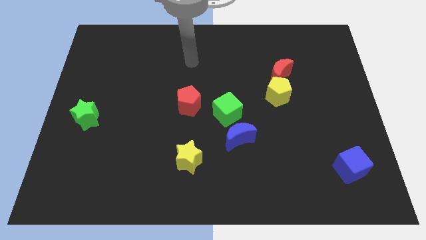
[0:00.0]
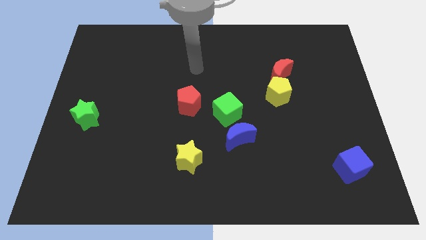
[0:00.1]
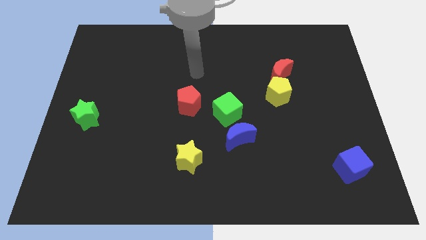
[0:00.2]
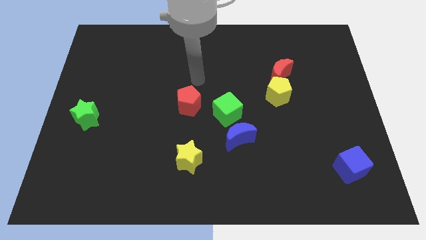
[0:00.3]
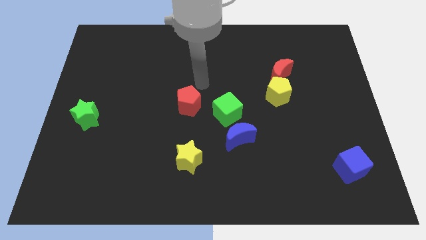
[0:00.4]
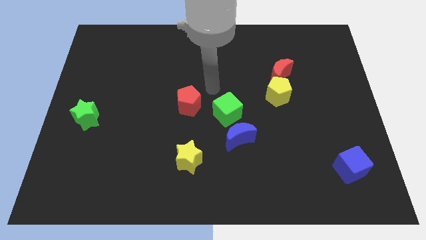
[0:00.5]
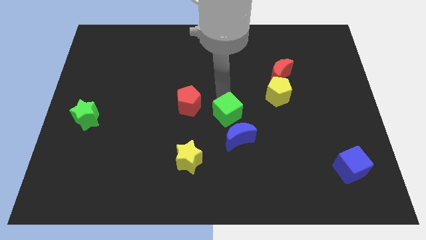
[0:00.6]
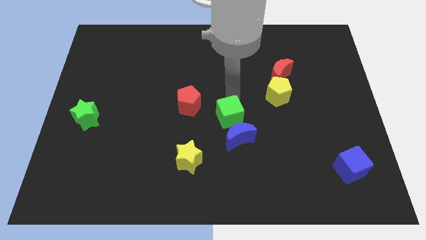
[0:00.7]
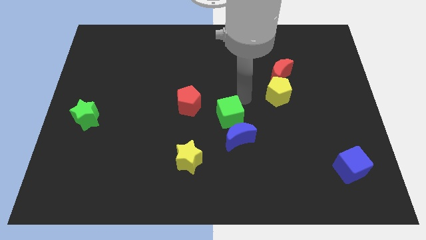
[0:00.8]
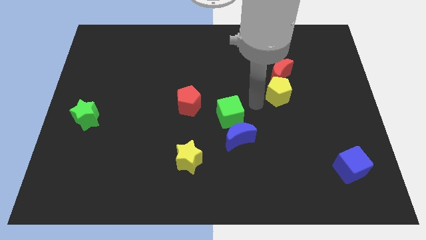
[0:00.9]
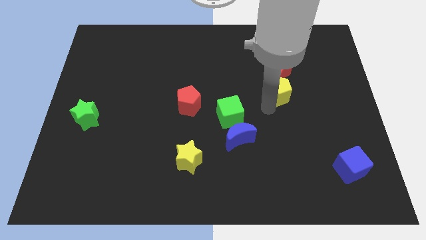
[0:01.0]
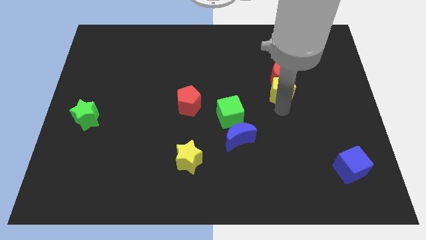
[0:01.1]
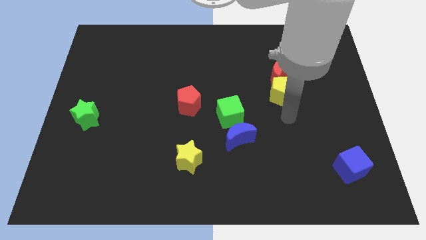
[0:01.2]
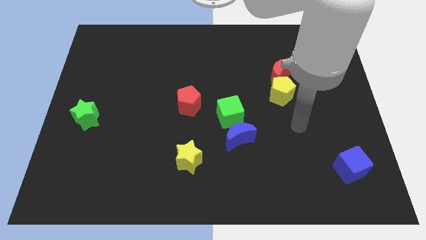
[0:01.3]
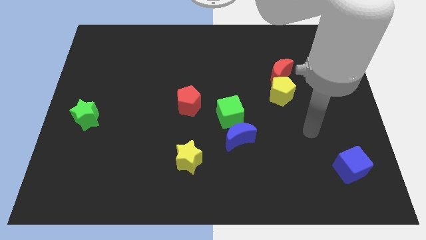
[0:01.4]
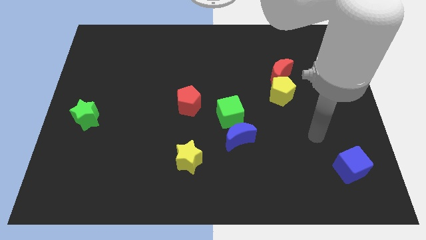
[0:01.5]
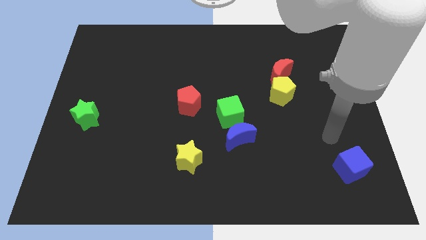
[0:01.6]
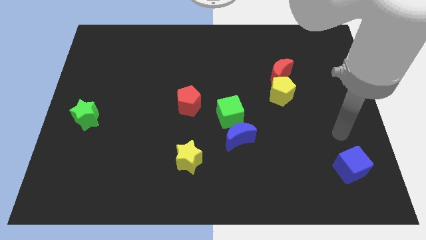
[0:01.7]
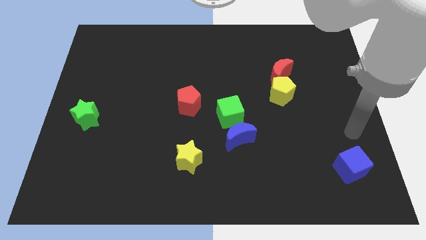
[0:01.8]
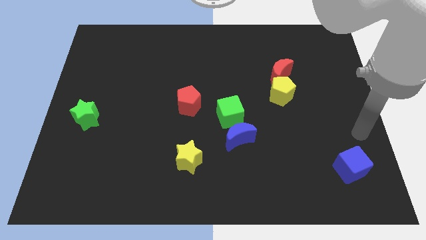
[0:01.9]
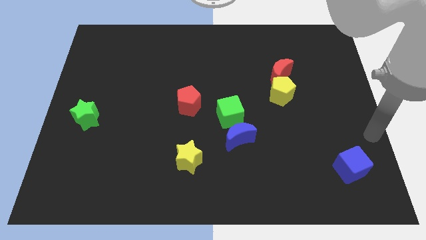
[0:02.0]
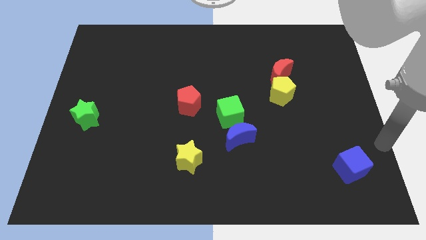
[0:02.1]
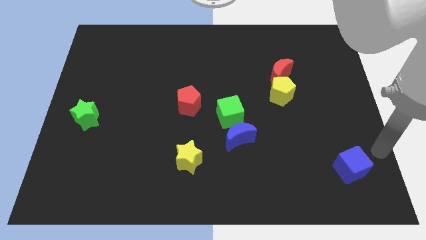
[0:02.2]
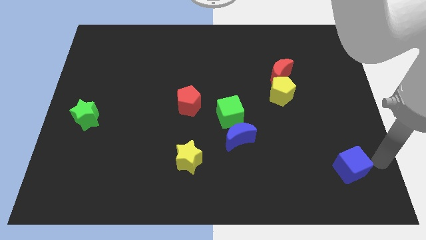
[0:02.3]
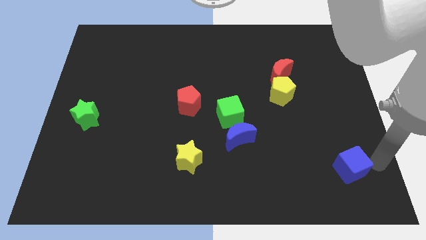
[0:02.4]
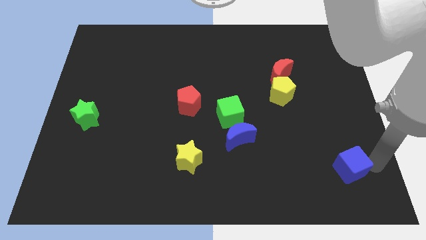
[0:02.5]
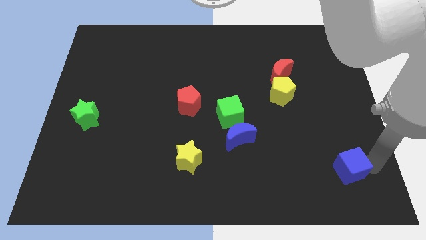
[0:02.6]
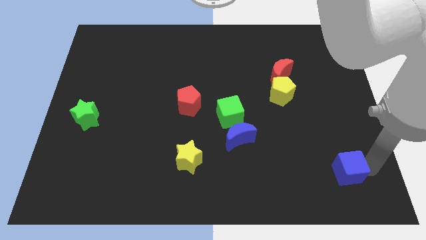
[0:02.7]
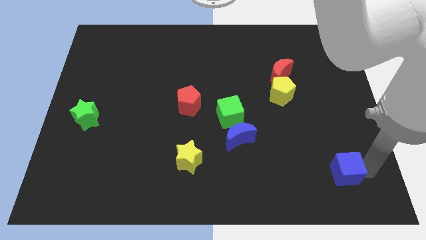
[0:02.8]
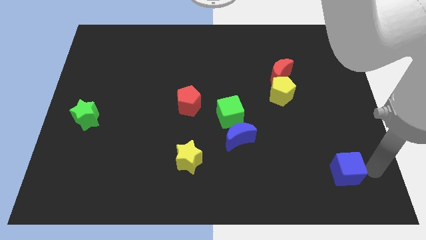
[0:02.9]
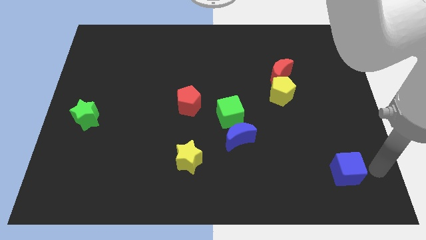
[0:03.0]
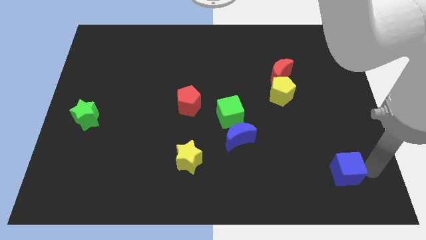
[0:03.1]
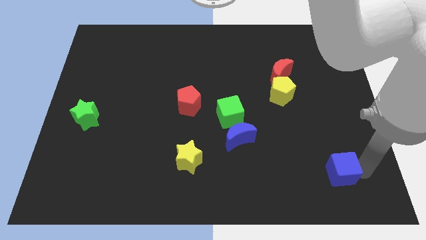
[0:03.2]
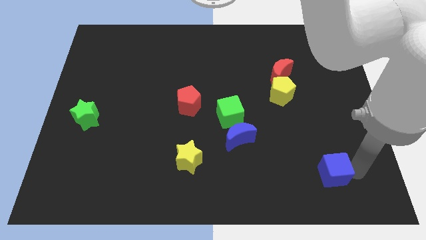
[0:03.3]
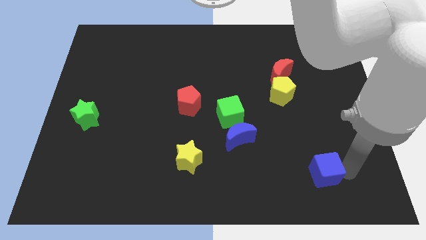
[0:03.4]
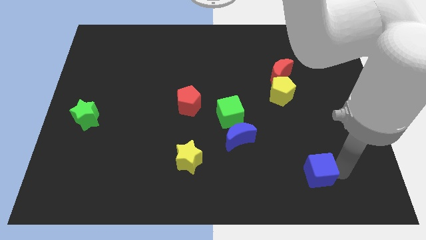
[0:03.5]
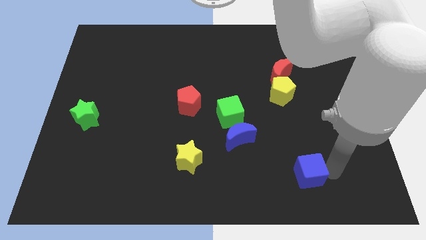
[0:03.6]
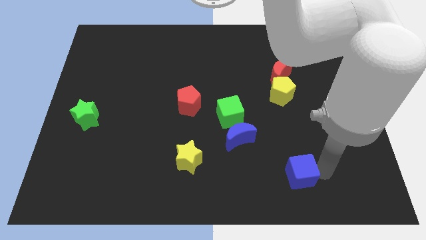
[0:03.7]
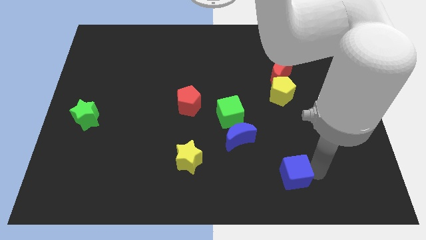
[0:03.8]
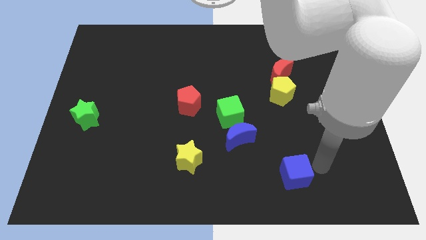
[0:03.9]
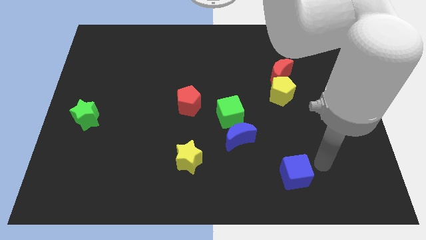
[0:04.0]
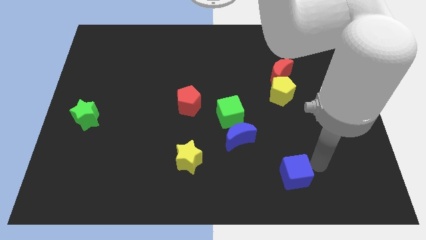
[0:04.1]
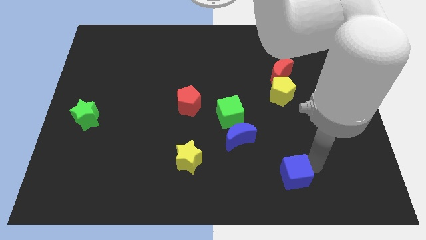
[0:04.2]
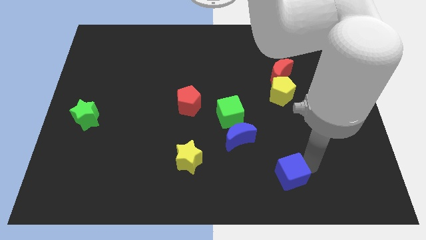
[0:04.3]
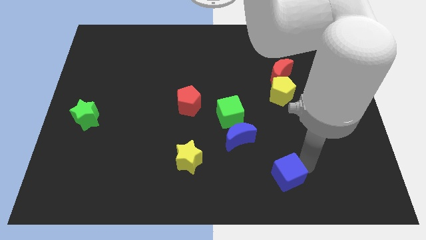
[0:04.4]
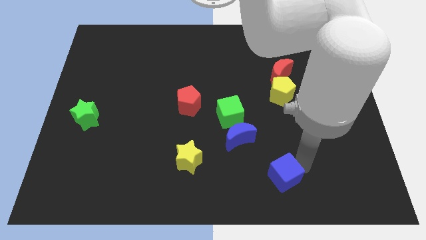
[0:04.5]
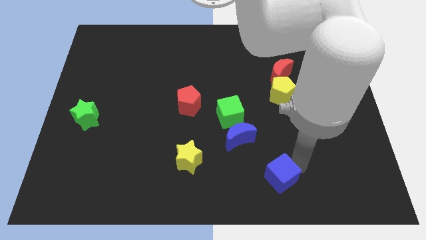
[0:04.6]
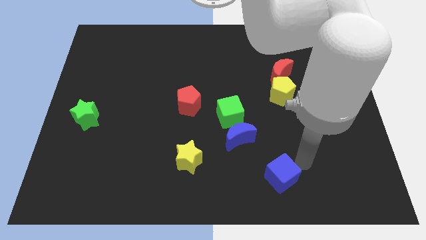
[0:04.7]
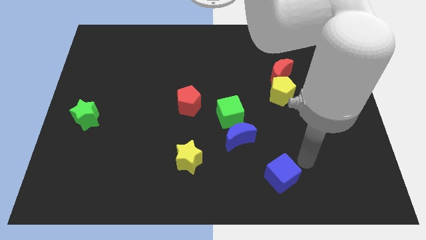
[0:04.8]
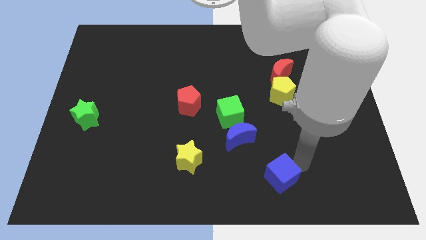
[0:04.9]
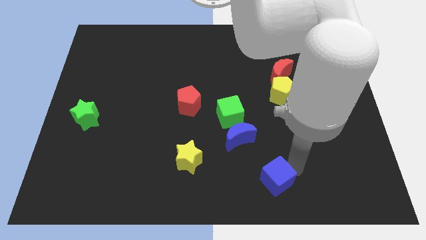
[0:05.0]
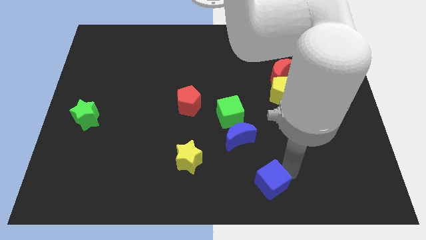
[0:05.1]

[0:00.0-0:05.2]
put the blue cube to the bottom

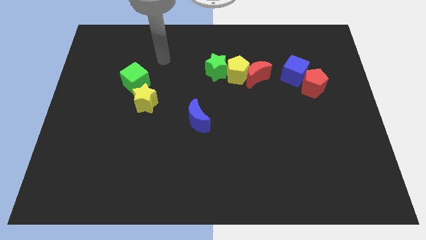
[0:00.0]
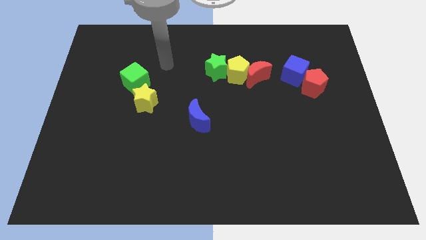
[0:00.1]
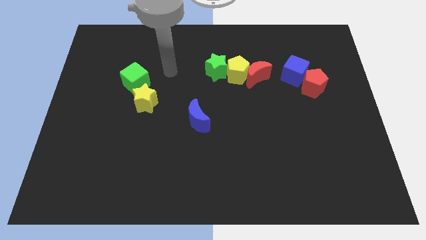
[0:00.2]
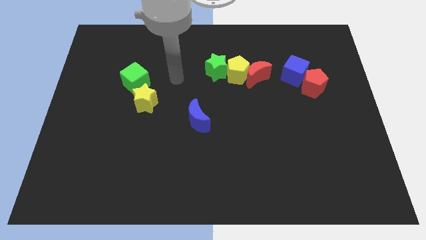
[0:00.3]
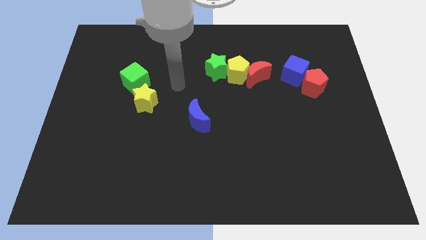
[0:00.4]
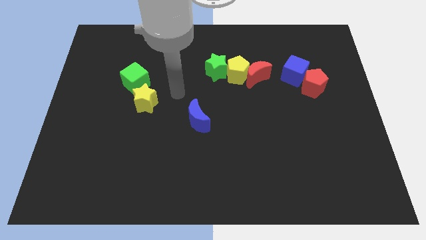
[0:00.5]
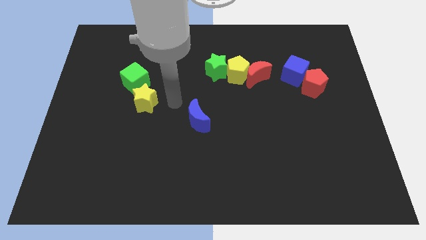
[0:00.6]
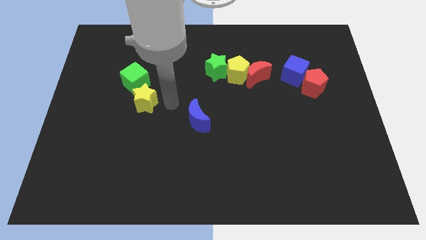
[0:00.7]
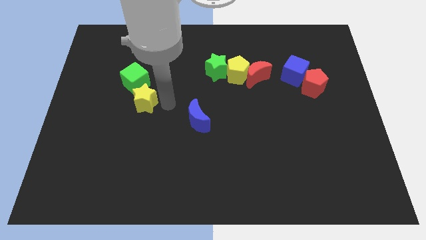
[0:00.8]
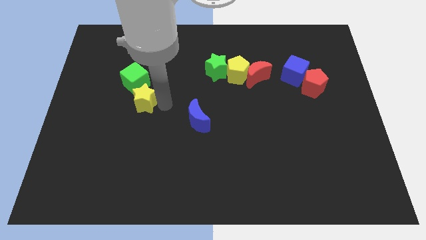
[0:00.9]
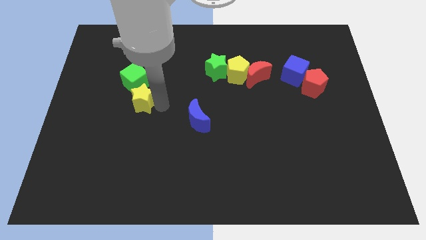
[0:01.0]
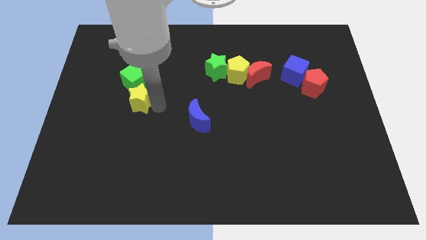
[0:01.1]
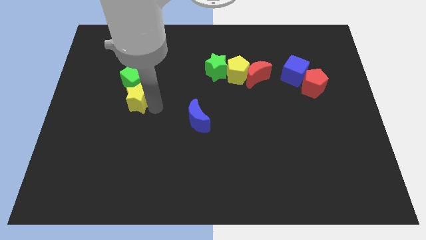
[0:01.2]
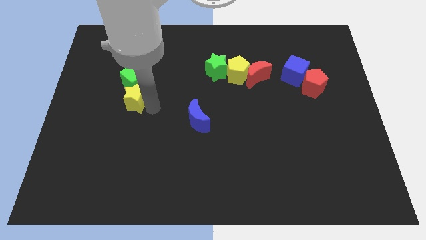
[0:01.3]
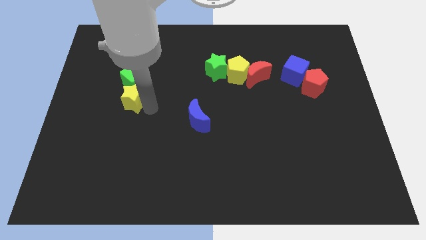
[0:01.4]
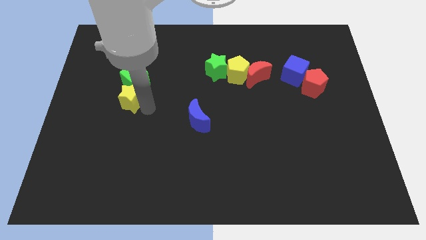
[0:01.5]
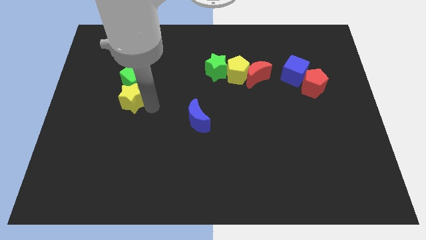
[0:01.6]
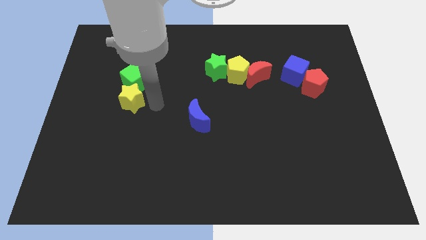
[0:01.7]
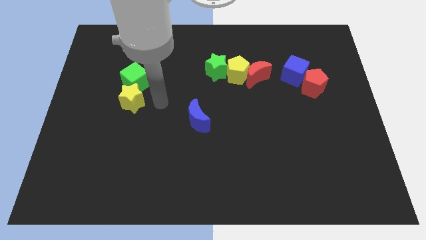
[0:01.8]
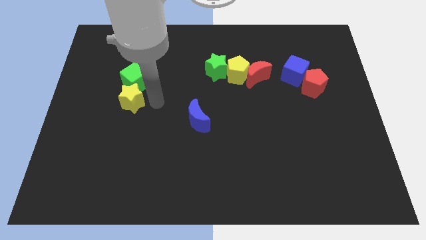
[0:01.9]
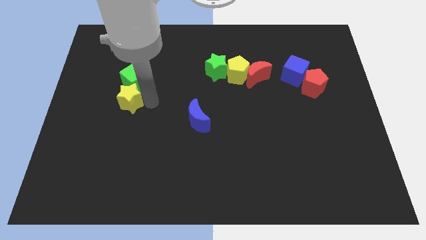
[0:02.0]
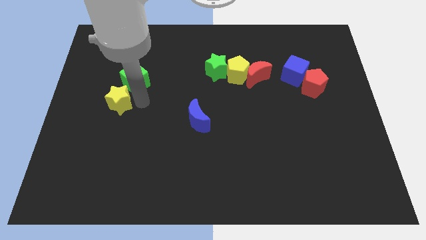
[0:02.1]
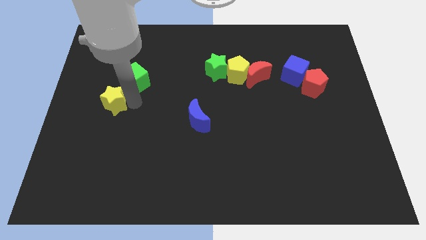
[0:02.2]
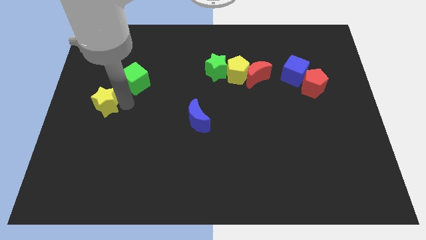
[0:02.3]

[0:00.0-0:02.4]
put the yellow star to the center left
